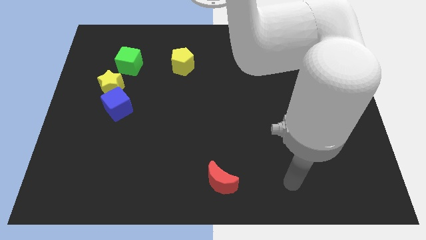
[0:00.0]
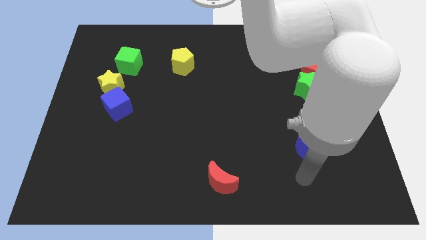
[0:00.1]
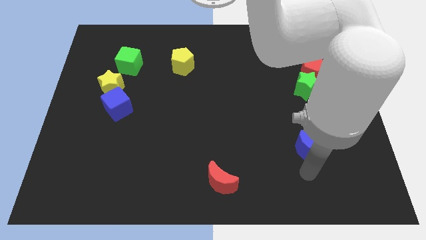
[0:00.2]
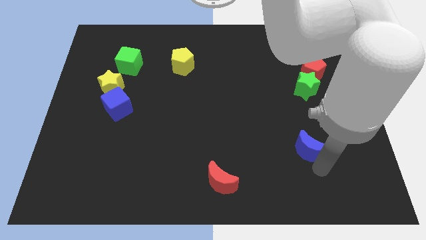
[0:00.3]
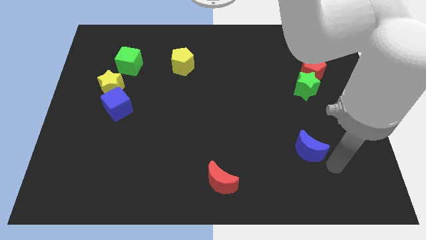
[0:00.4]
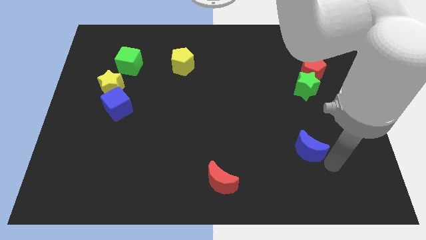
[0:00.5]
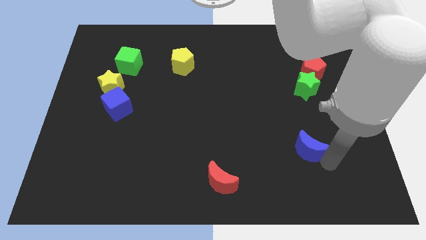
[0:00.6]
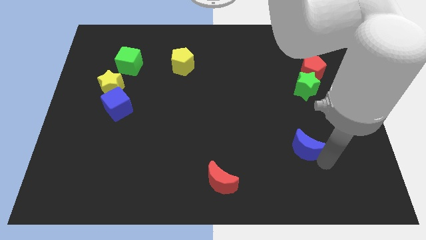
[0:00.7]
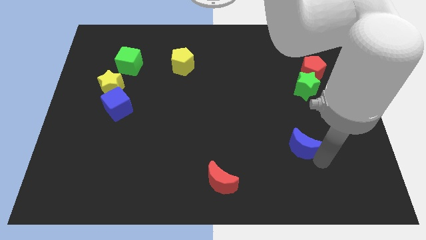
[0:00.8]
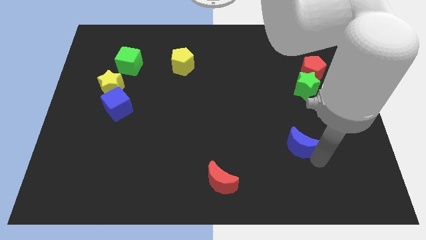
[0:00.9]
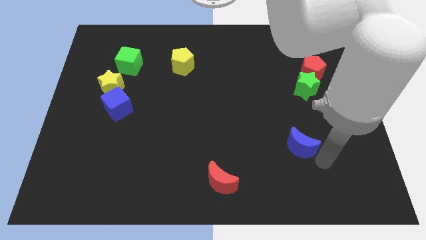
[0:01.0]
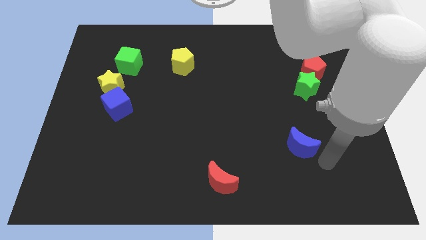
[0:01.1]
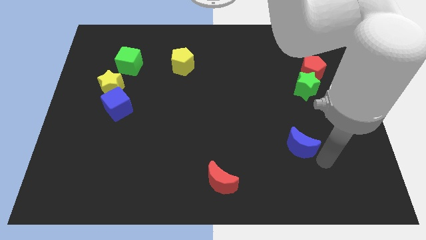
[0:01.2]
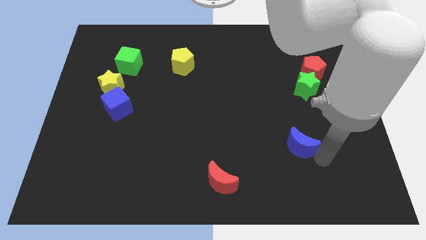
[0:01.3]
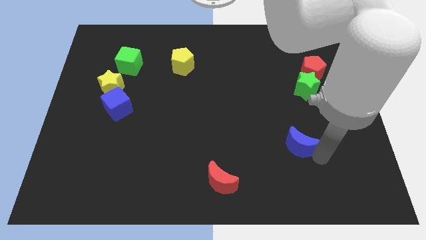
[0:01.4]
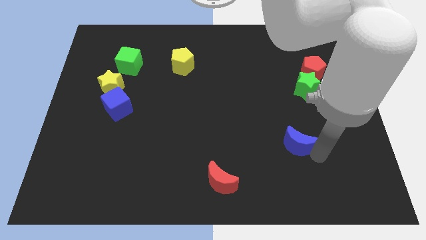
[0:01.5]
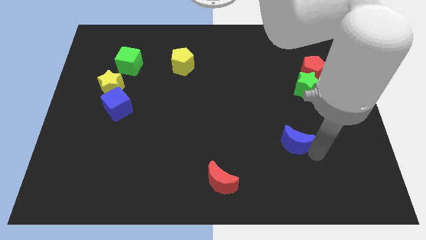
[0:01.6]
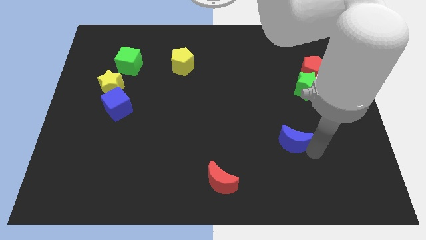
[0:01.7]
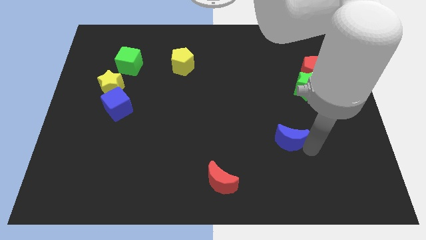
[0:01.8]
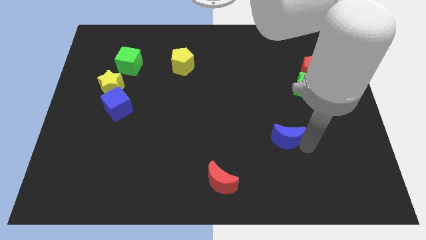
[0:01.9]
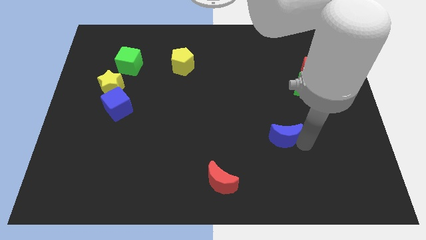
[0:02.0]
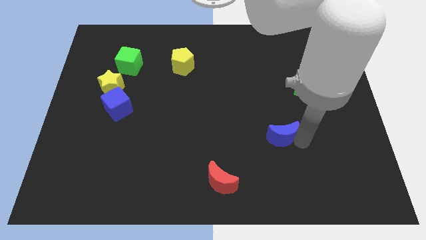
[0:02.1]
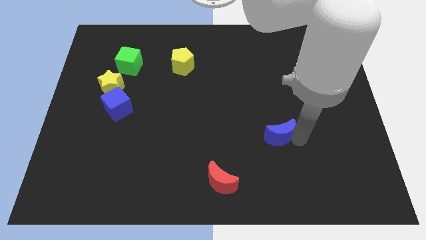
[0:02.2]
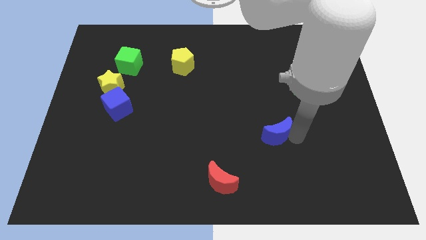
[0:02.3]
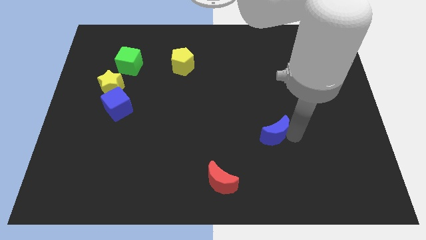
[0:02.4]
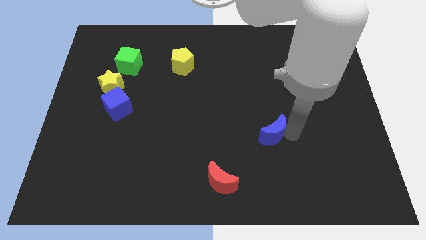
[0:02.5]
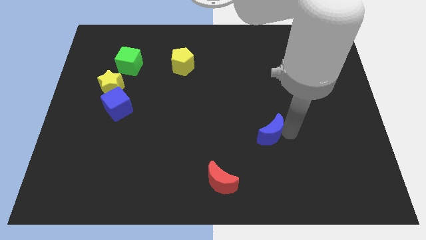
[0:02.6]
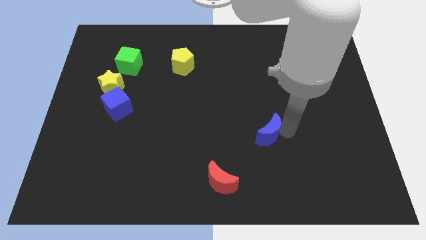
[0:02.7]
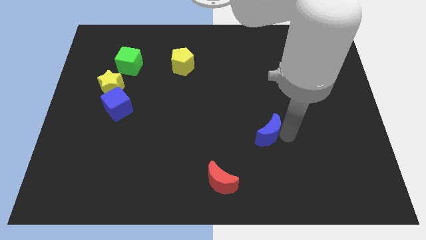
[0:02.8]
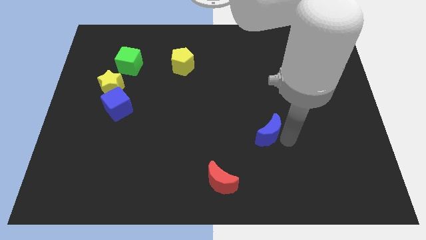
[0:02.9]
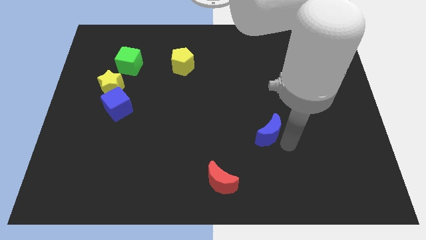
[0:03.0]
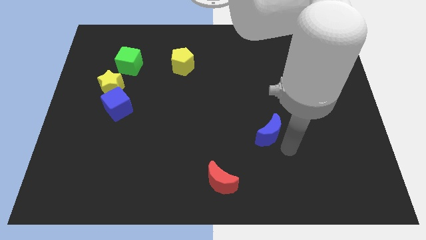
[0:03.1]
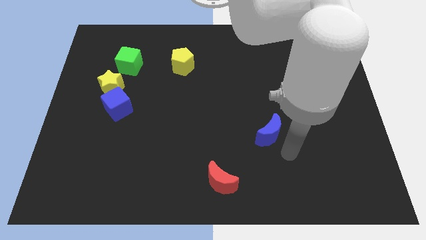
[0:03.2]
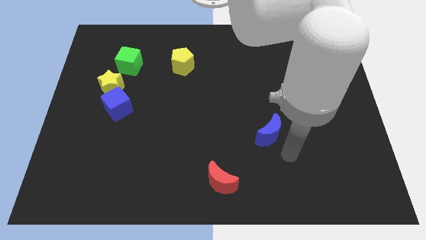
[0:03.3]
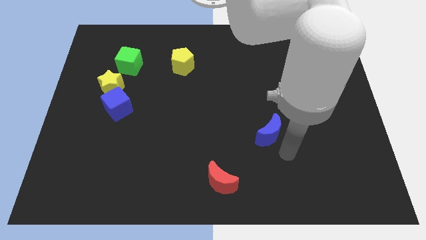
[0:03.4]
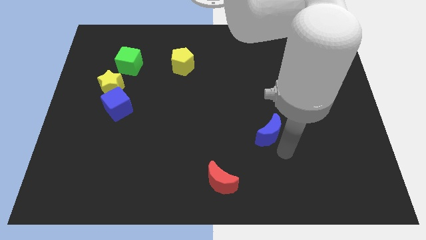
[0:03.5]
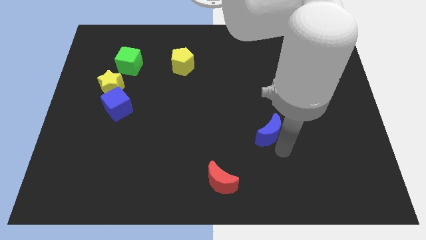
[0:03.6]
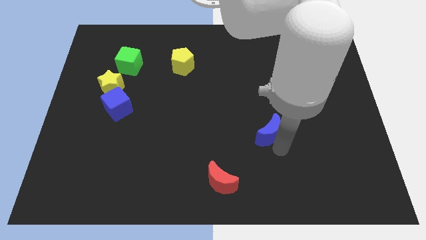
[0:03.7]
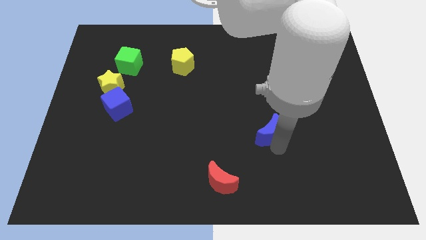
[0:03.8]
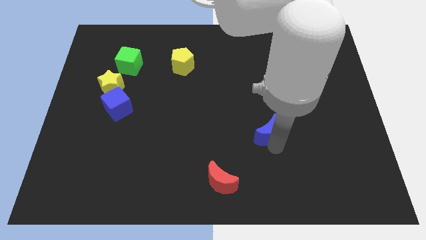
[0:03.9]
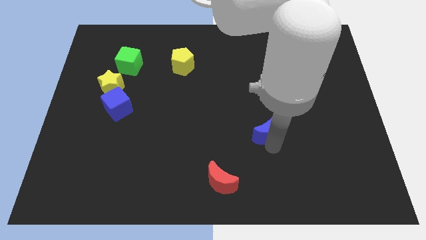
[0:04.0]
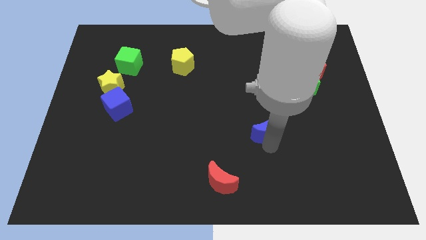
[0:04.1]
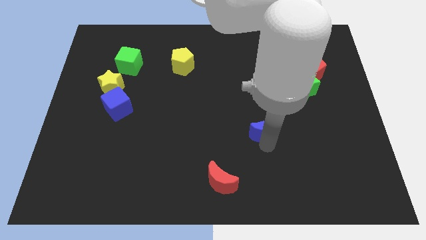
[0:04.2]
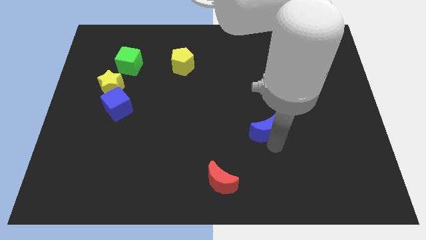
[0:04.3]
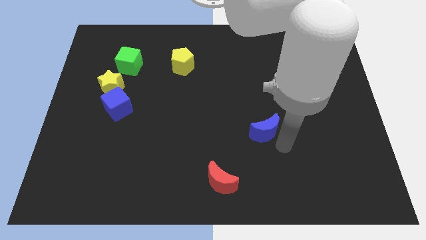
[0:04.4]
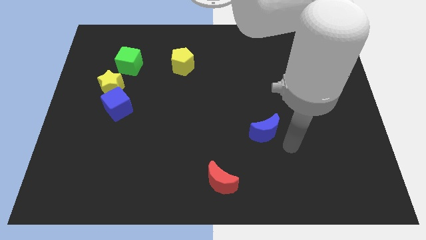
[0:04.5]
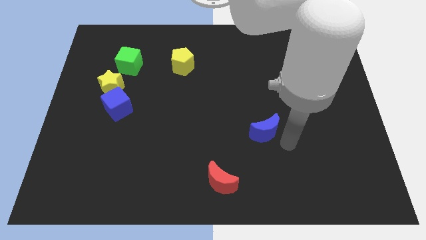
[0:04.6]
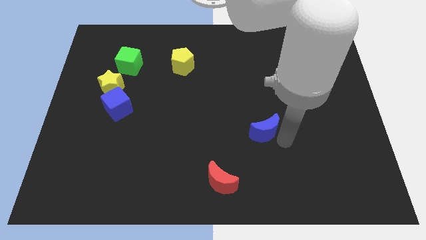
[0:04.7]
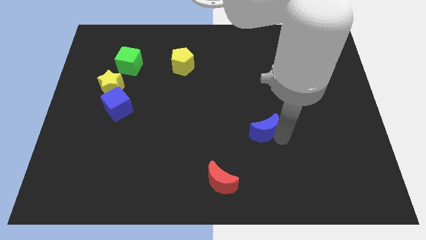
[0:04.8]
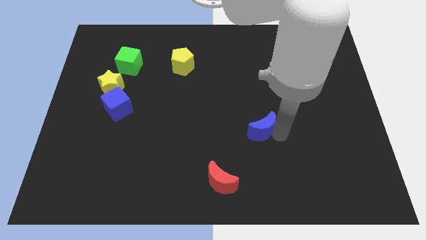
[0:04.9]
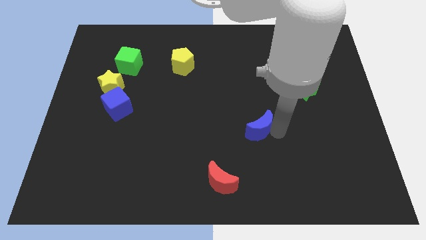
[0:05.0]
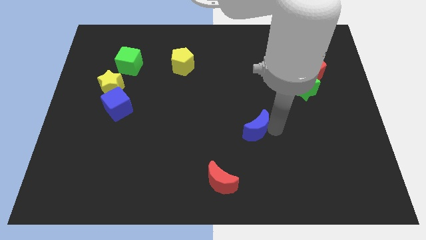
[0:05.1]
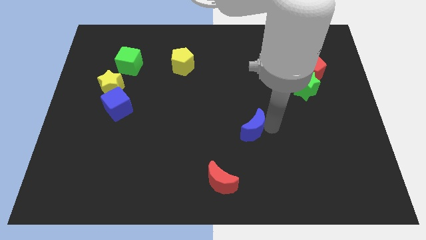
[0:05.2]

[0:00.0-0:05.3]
move the blue moon to the middle of the board

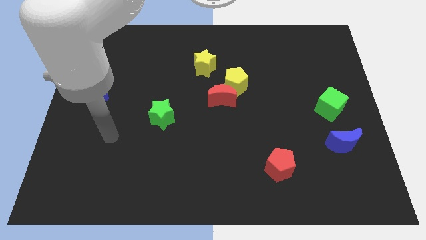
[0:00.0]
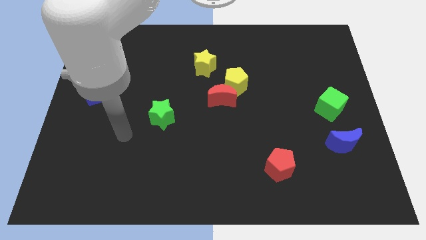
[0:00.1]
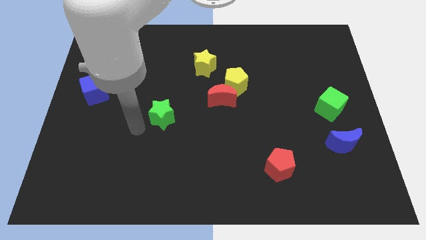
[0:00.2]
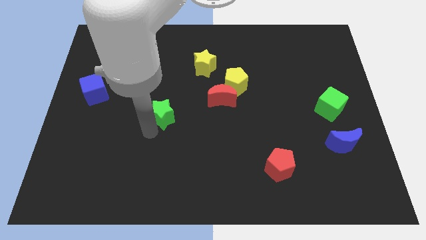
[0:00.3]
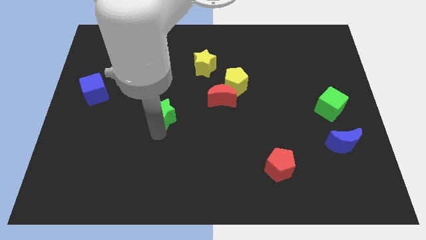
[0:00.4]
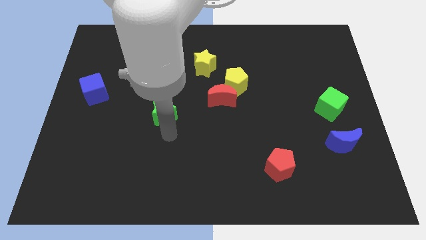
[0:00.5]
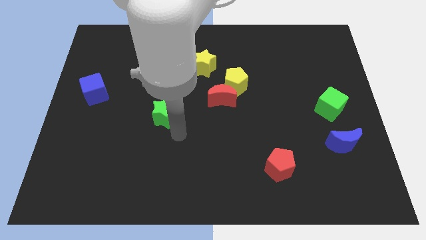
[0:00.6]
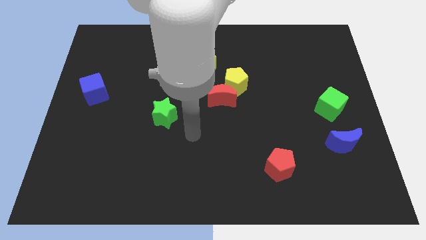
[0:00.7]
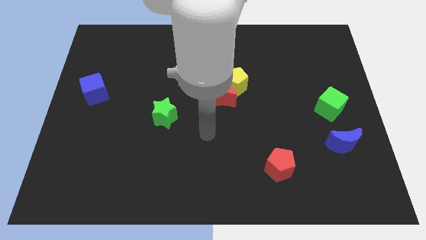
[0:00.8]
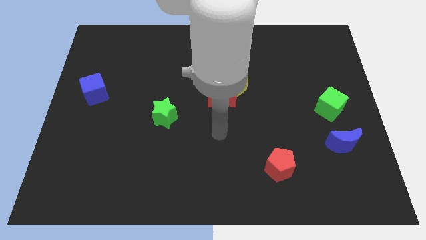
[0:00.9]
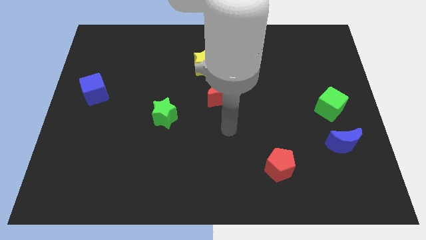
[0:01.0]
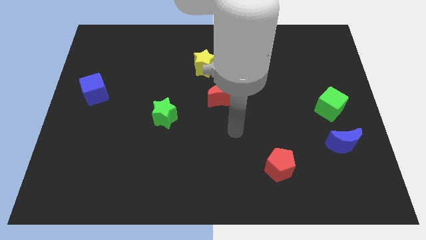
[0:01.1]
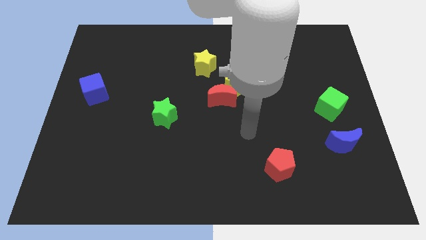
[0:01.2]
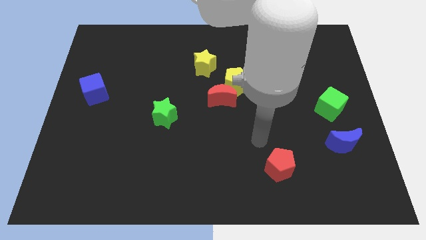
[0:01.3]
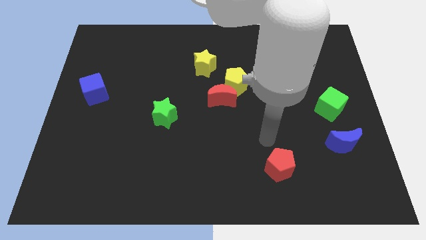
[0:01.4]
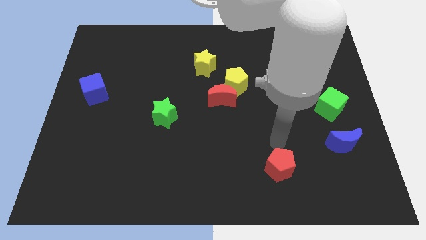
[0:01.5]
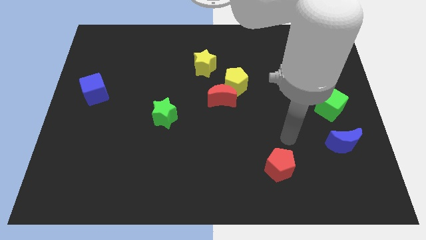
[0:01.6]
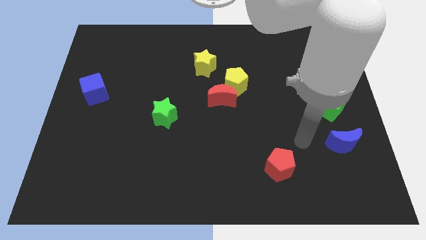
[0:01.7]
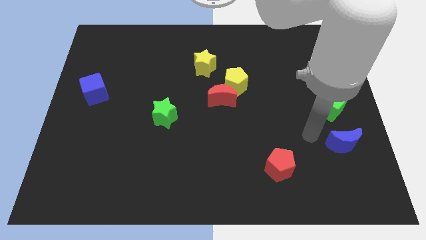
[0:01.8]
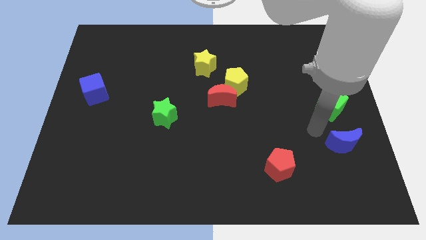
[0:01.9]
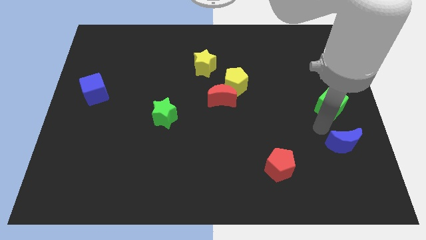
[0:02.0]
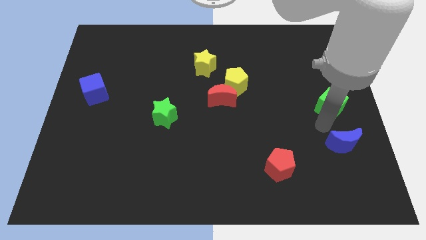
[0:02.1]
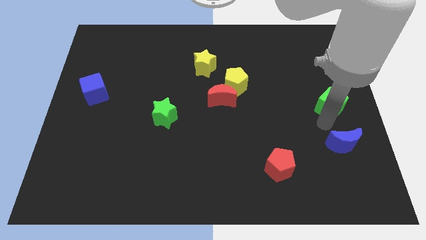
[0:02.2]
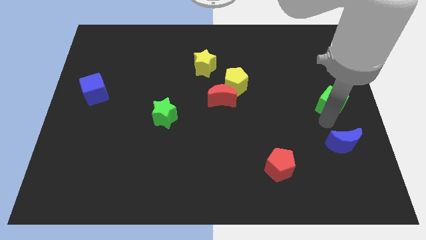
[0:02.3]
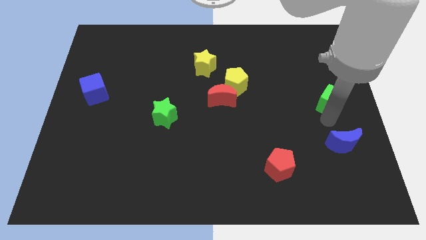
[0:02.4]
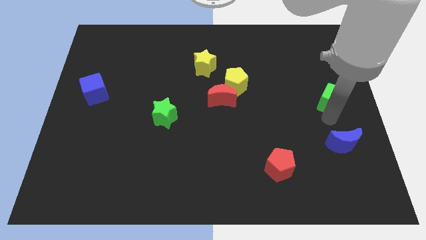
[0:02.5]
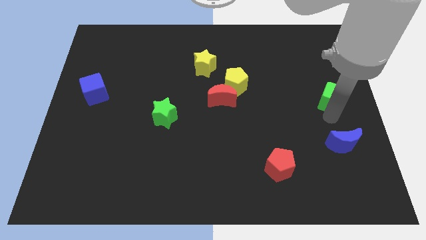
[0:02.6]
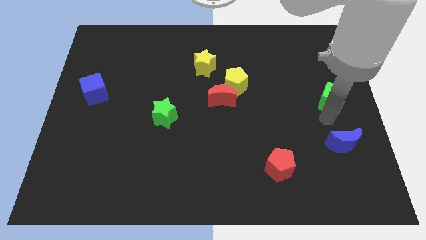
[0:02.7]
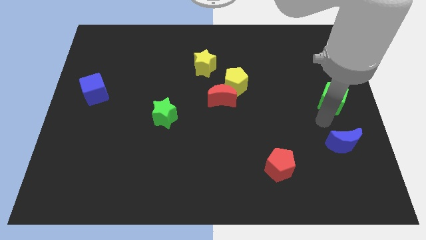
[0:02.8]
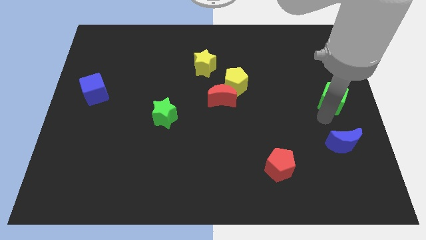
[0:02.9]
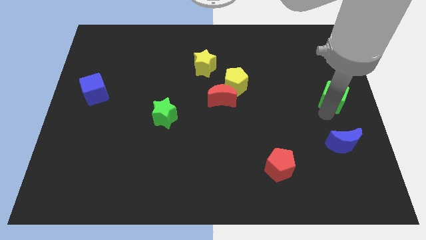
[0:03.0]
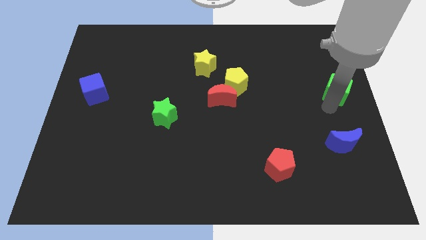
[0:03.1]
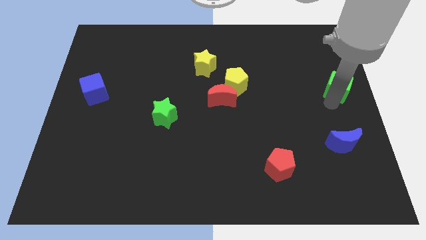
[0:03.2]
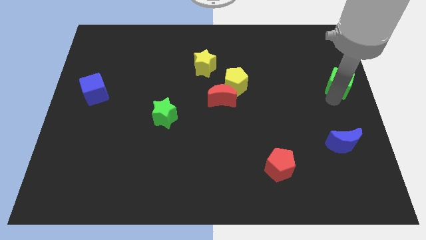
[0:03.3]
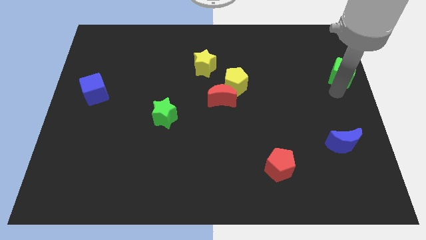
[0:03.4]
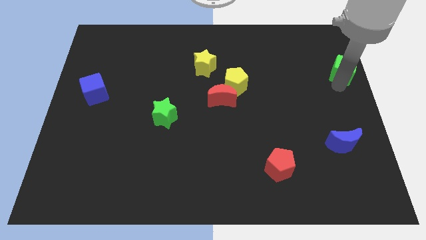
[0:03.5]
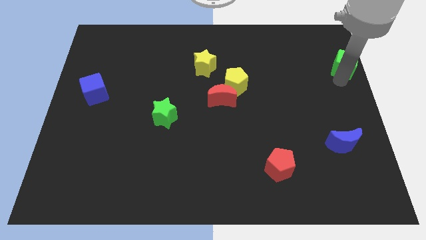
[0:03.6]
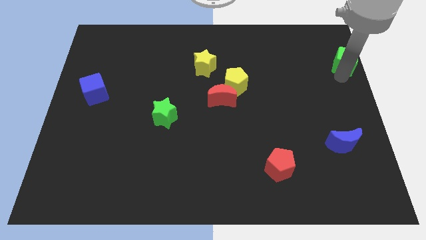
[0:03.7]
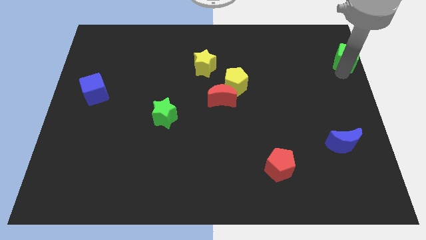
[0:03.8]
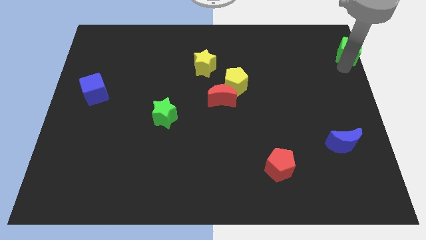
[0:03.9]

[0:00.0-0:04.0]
put the green cube to the top right of the board
